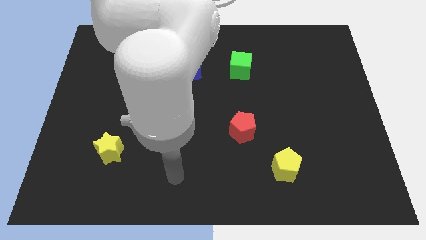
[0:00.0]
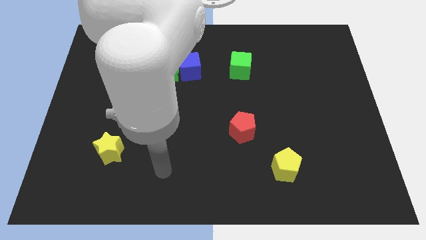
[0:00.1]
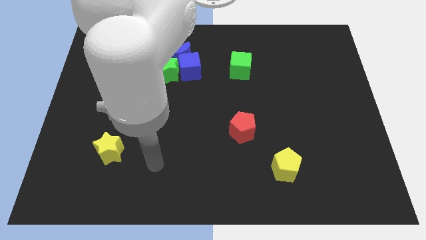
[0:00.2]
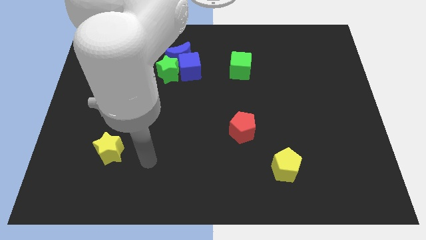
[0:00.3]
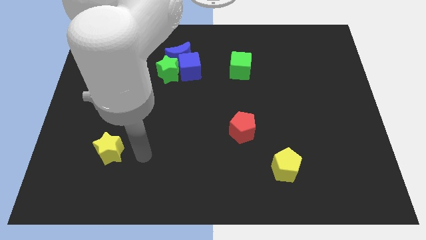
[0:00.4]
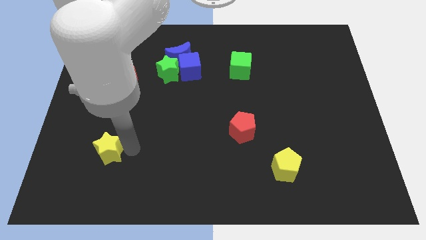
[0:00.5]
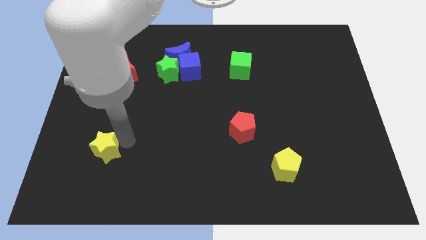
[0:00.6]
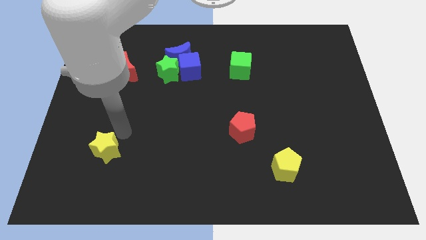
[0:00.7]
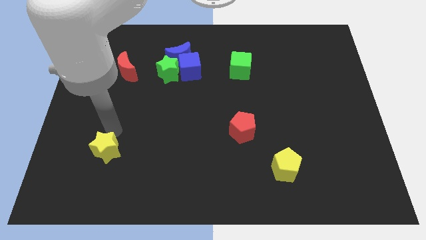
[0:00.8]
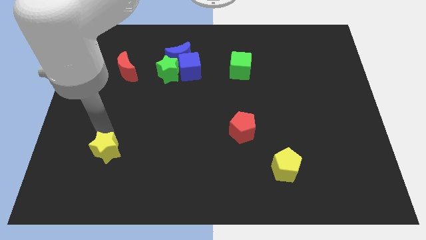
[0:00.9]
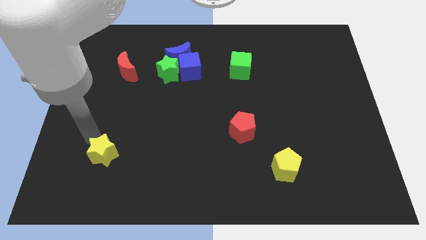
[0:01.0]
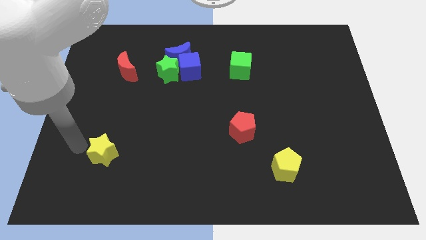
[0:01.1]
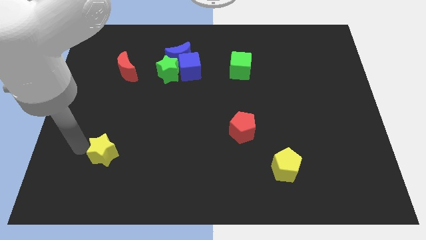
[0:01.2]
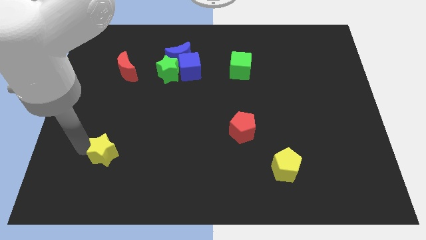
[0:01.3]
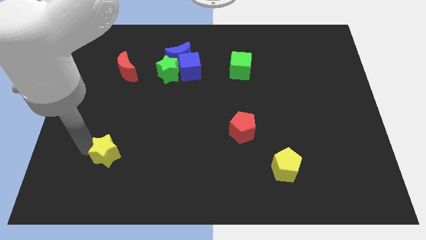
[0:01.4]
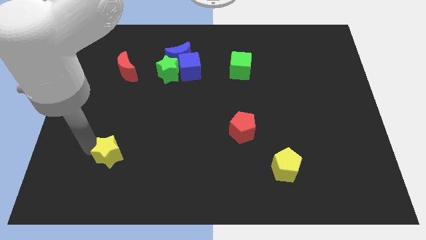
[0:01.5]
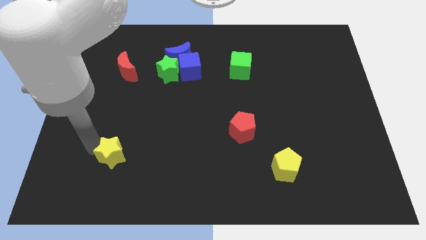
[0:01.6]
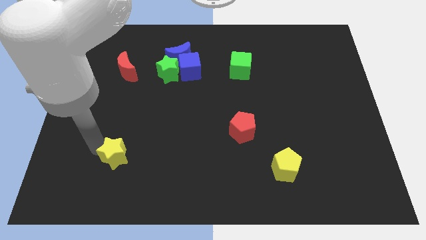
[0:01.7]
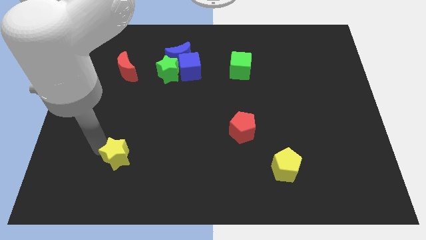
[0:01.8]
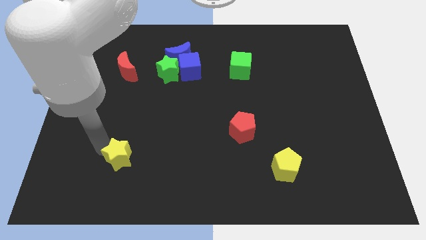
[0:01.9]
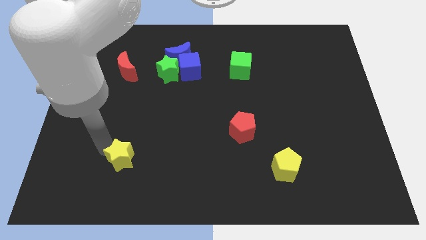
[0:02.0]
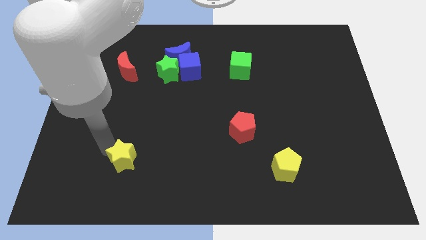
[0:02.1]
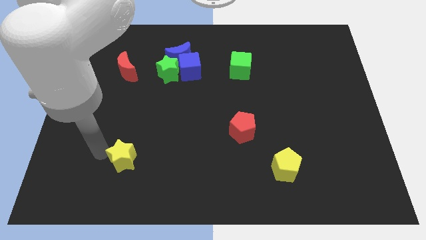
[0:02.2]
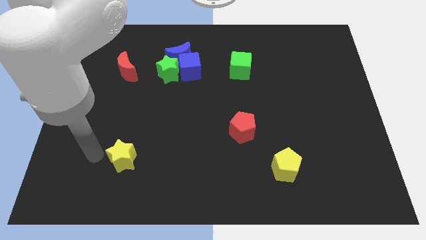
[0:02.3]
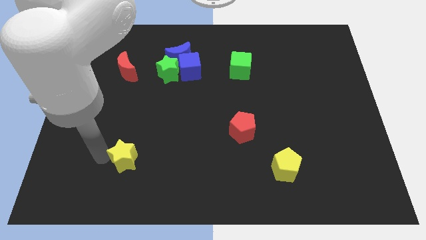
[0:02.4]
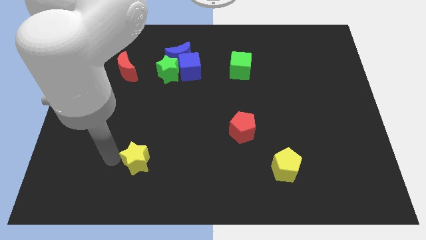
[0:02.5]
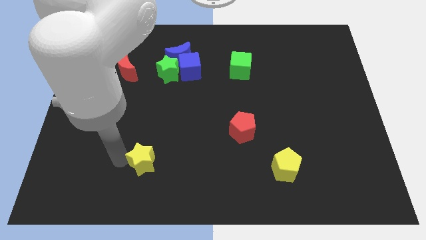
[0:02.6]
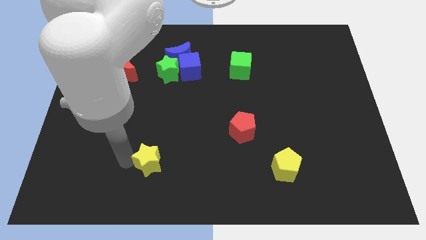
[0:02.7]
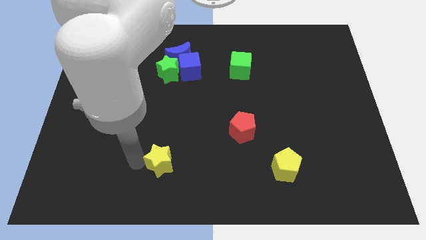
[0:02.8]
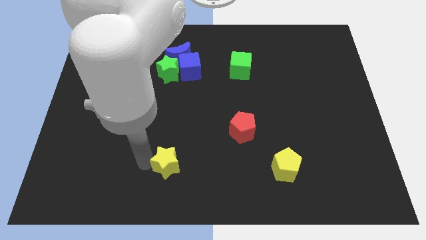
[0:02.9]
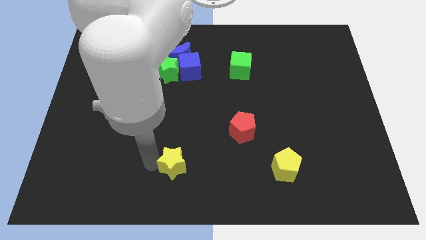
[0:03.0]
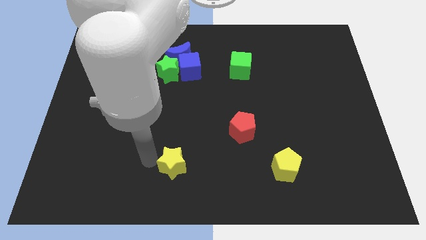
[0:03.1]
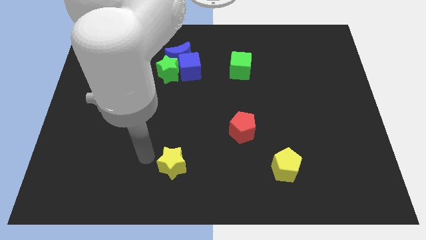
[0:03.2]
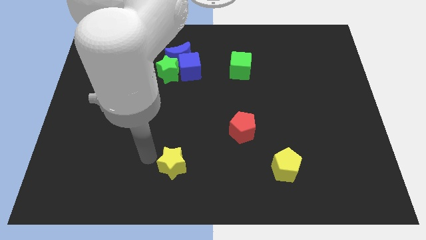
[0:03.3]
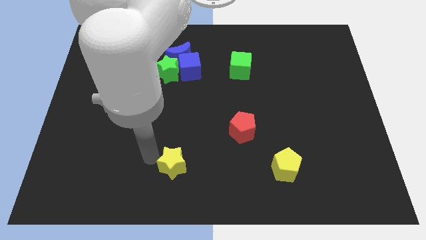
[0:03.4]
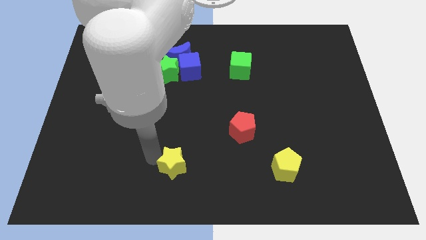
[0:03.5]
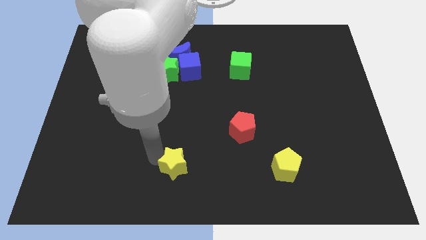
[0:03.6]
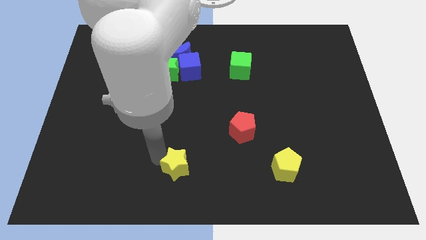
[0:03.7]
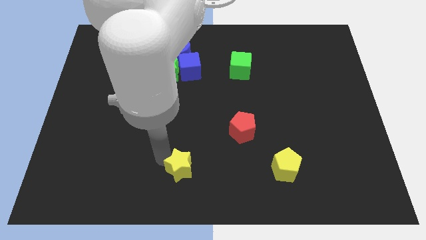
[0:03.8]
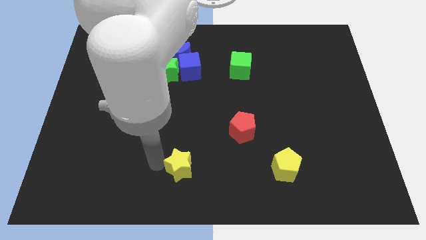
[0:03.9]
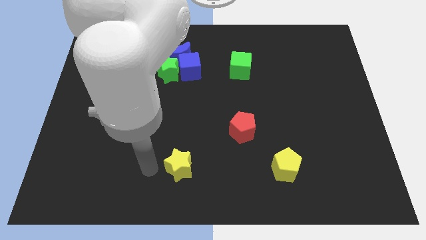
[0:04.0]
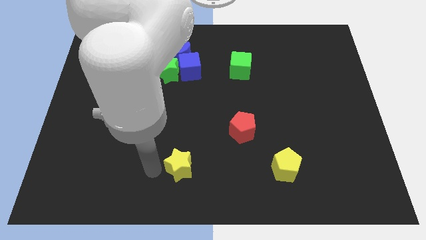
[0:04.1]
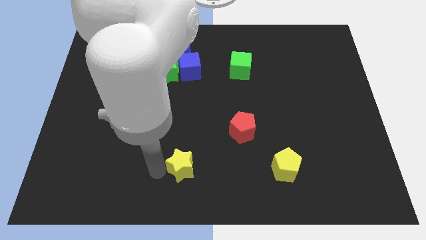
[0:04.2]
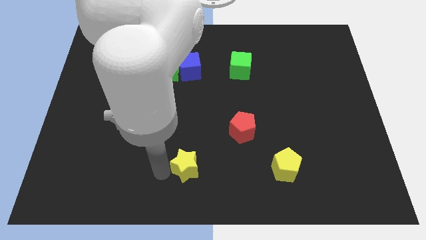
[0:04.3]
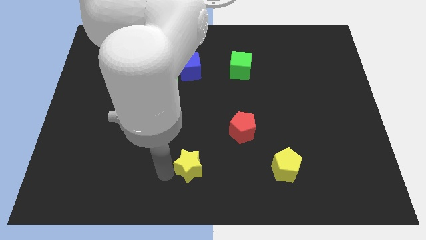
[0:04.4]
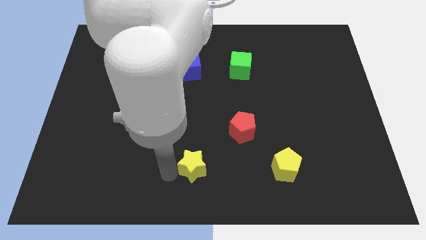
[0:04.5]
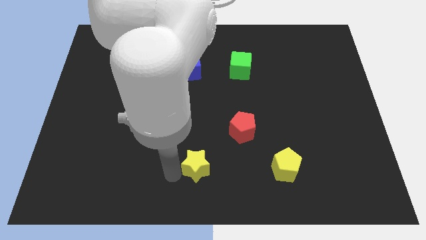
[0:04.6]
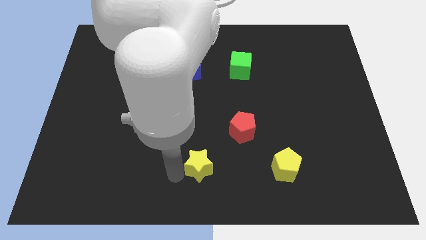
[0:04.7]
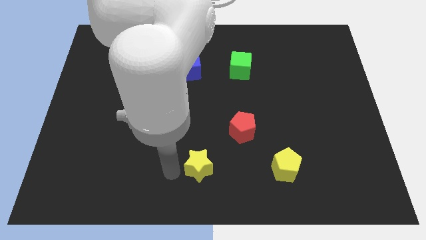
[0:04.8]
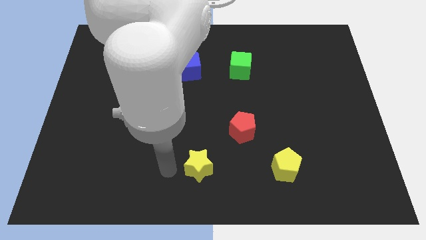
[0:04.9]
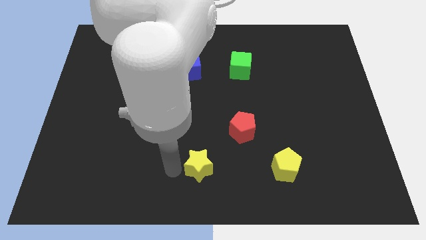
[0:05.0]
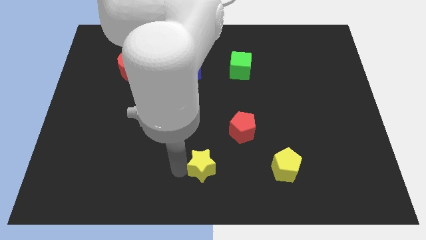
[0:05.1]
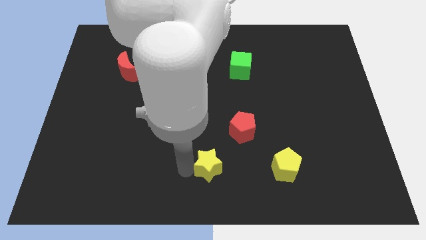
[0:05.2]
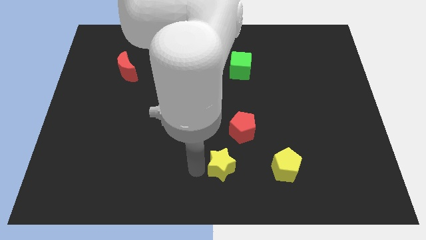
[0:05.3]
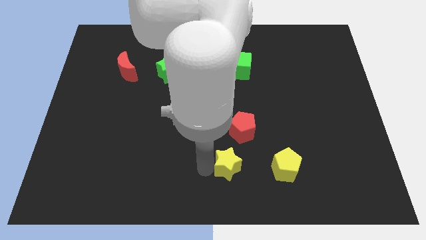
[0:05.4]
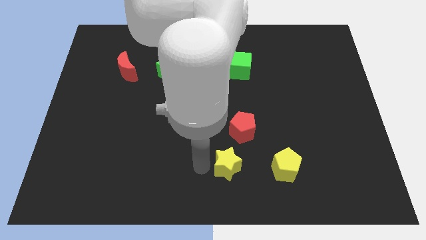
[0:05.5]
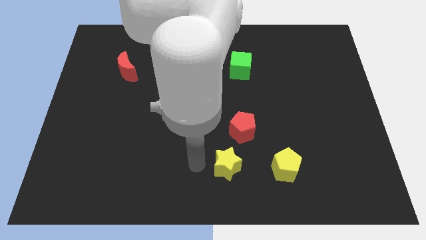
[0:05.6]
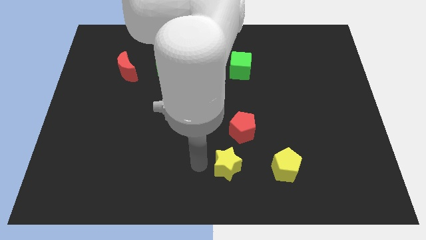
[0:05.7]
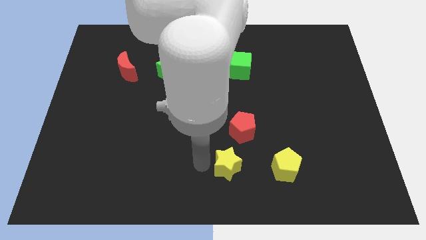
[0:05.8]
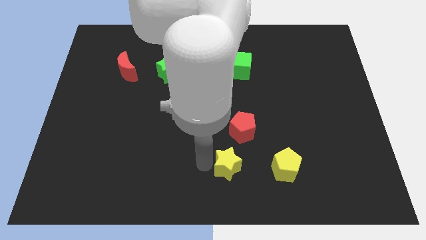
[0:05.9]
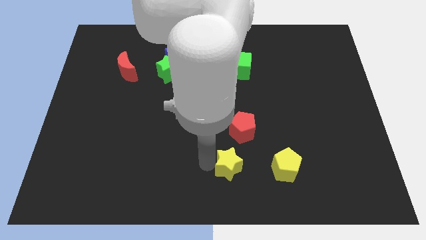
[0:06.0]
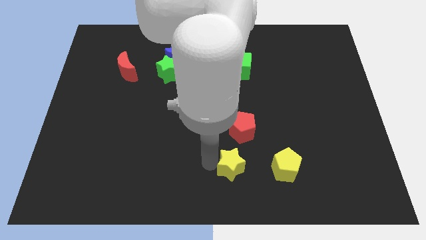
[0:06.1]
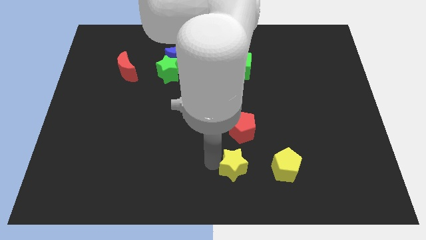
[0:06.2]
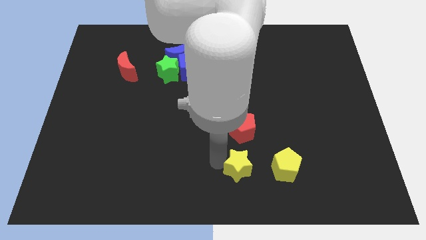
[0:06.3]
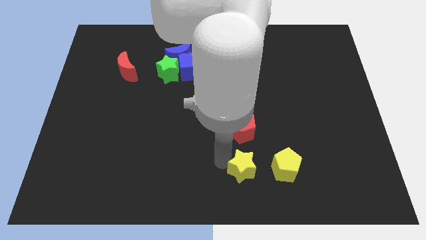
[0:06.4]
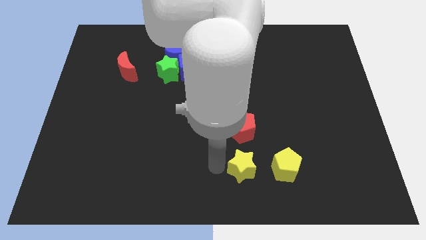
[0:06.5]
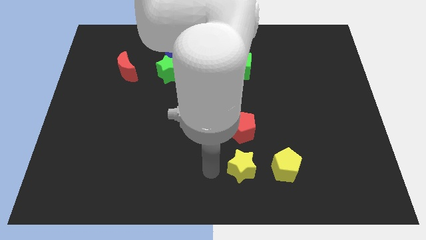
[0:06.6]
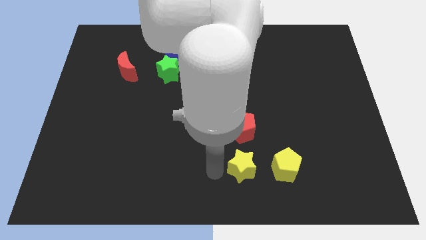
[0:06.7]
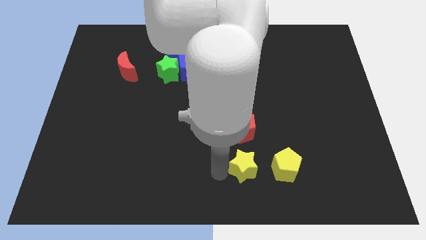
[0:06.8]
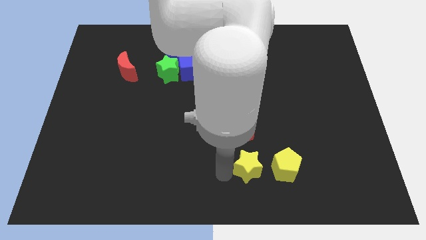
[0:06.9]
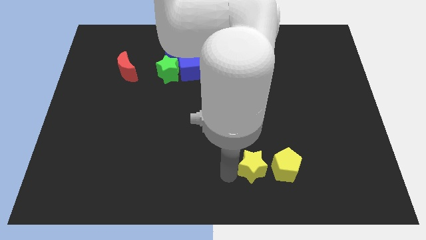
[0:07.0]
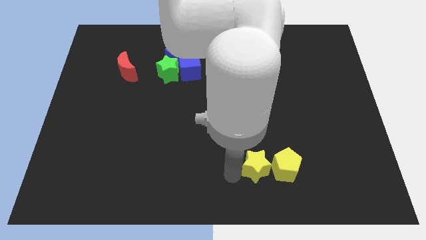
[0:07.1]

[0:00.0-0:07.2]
push the yellow star to the yellow pentagon

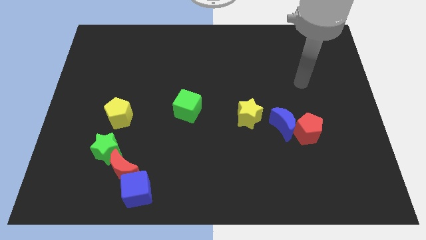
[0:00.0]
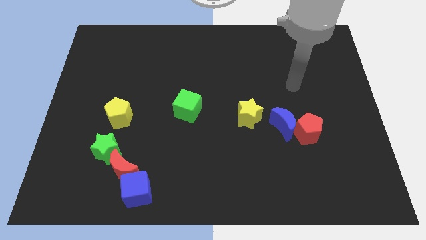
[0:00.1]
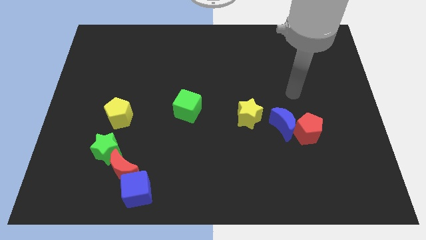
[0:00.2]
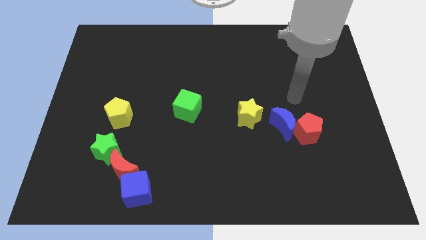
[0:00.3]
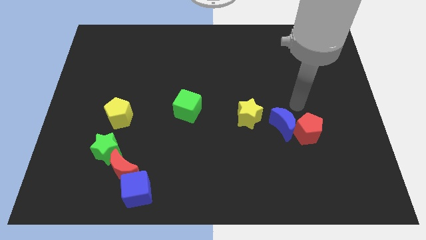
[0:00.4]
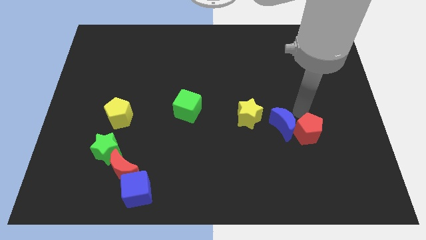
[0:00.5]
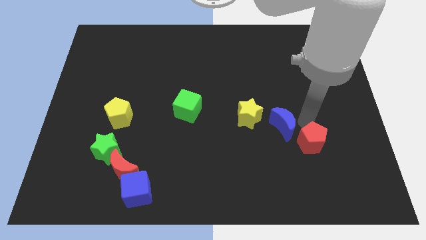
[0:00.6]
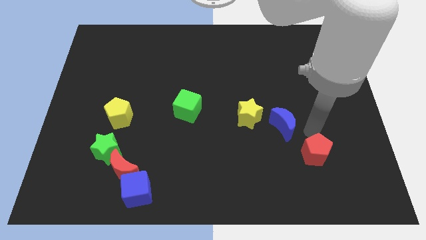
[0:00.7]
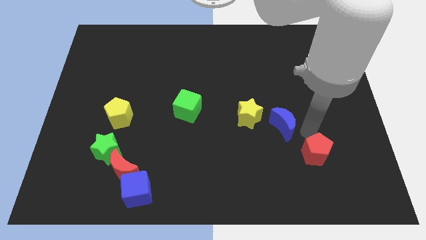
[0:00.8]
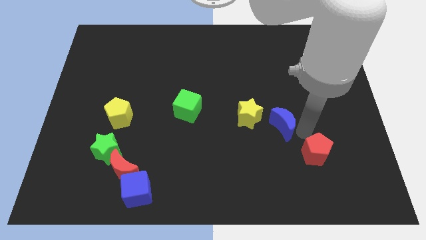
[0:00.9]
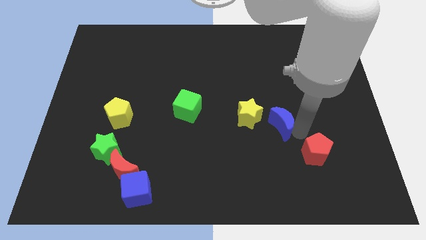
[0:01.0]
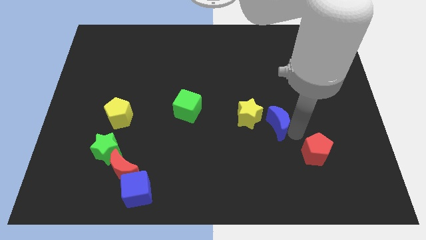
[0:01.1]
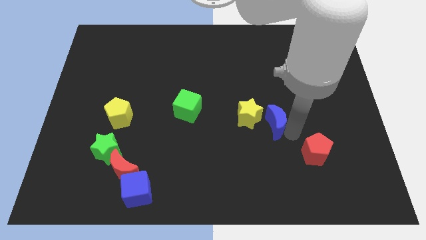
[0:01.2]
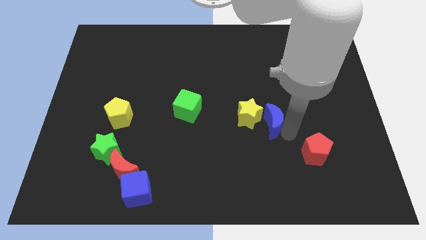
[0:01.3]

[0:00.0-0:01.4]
put the blue moon towards the yellow star
